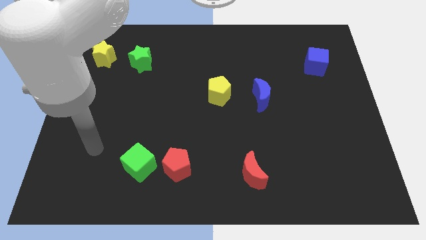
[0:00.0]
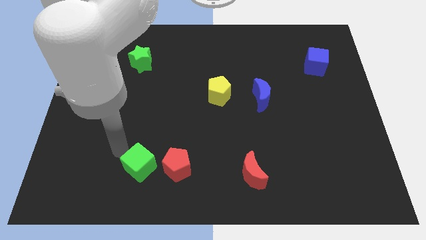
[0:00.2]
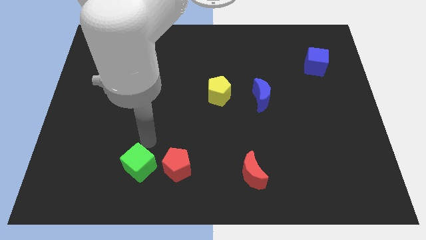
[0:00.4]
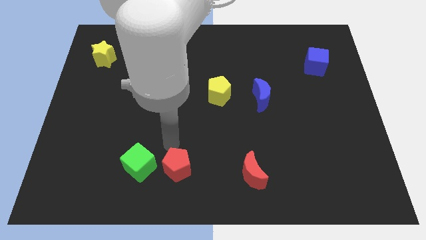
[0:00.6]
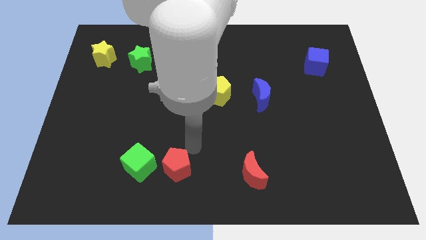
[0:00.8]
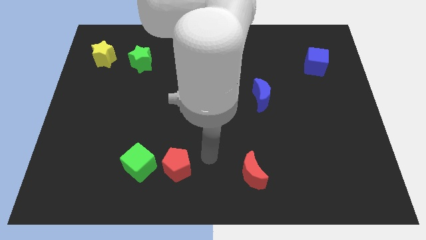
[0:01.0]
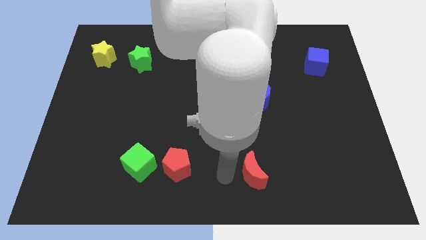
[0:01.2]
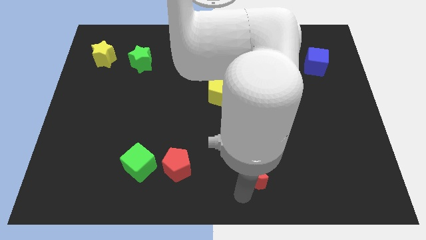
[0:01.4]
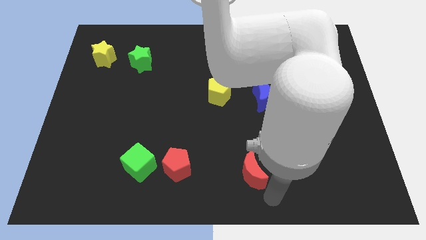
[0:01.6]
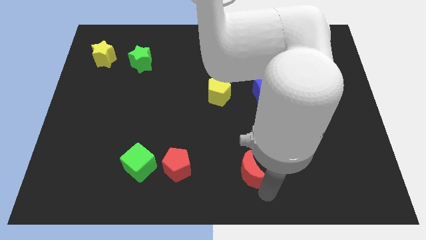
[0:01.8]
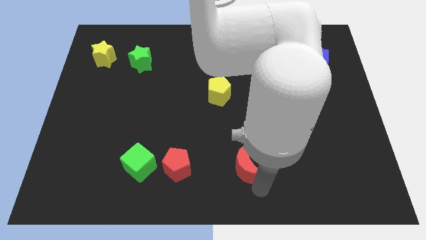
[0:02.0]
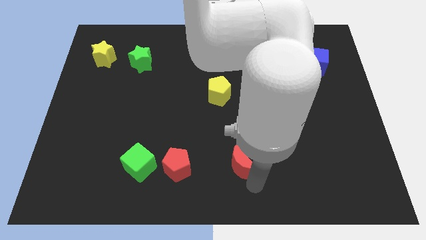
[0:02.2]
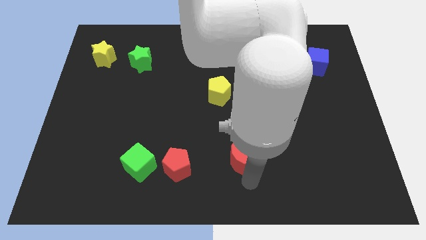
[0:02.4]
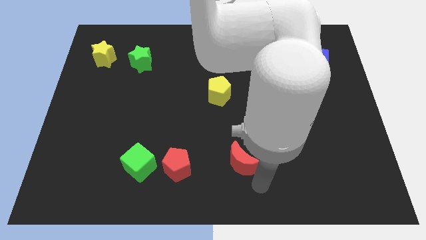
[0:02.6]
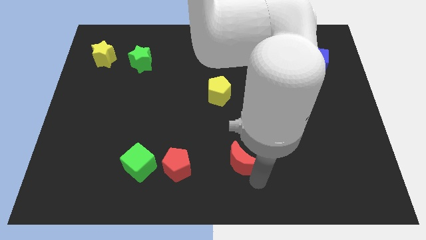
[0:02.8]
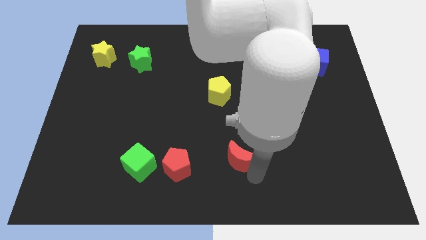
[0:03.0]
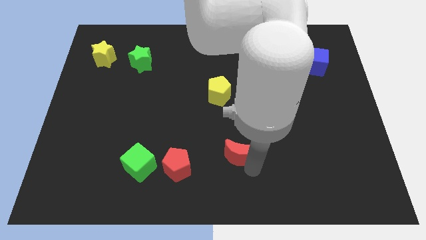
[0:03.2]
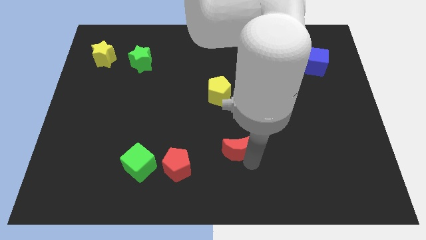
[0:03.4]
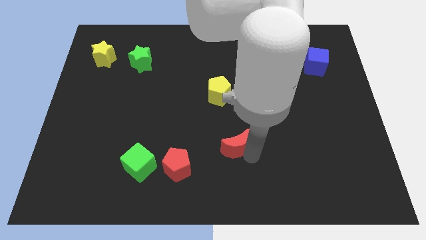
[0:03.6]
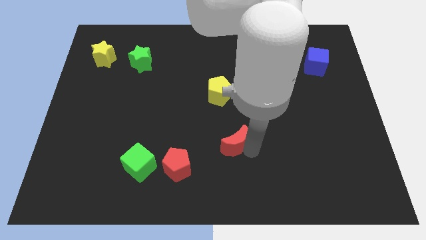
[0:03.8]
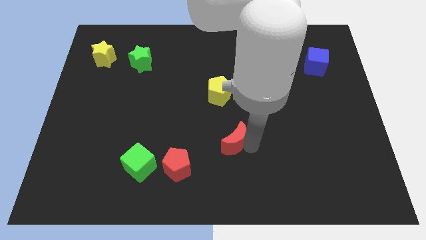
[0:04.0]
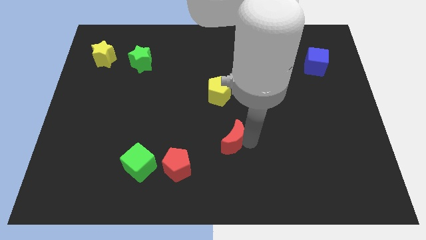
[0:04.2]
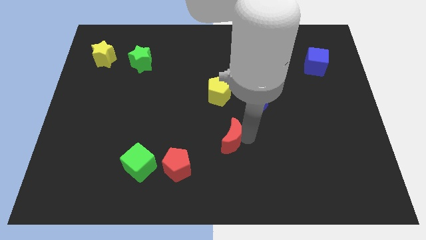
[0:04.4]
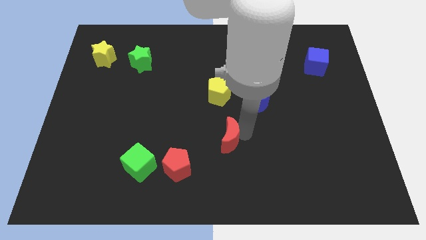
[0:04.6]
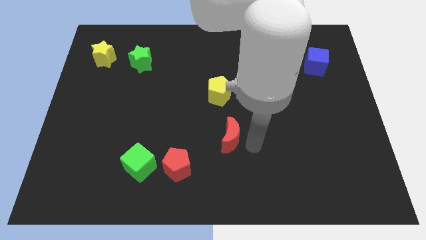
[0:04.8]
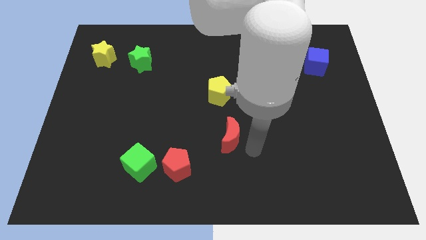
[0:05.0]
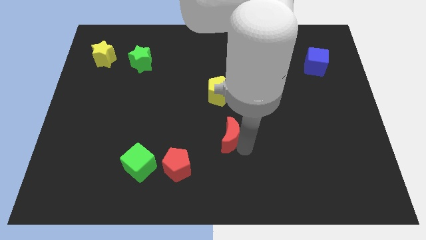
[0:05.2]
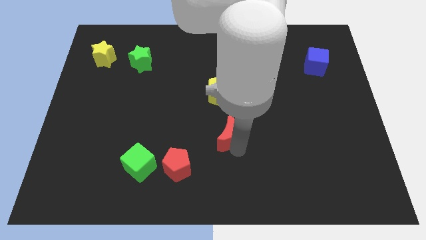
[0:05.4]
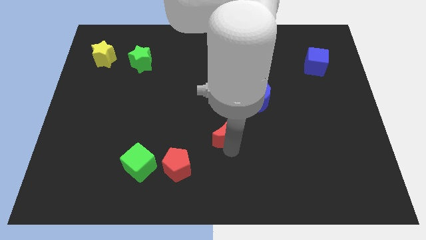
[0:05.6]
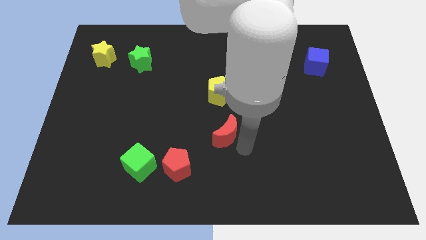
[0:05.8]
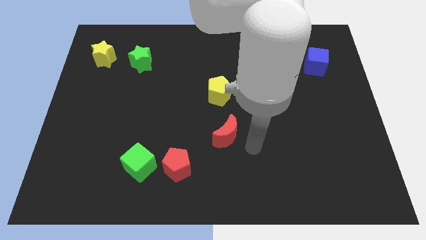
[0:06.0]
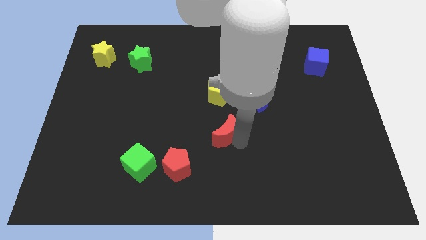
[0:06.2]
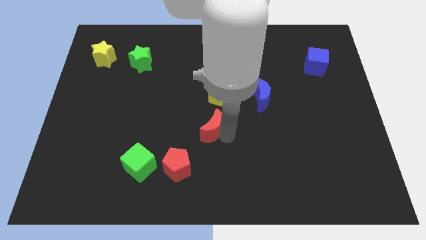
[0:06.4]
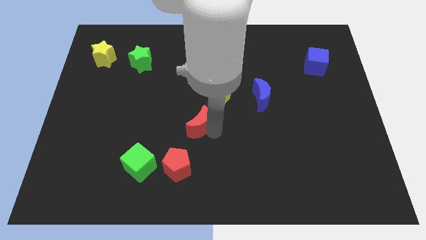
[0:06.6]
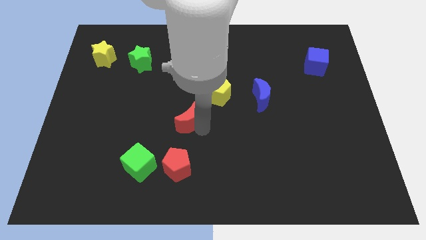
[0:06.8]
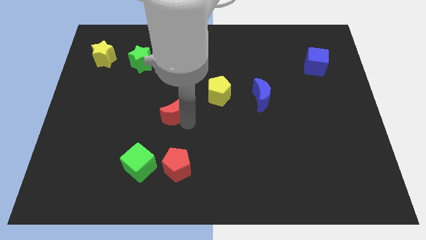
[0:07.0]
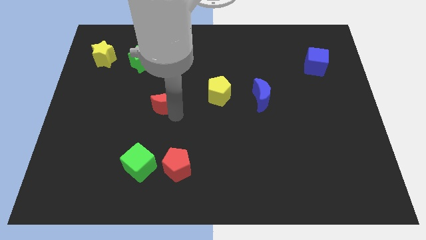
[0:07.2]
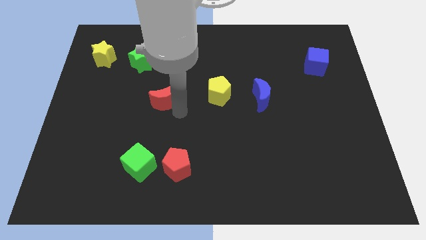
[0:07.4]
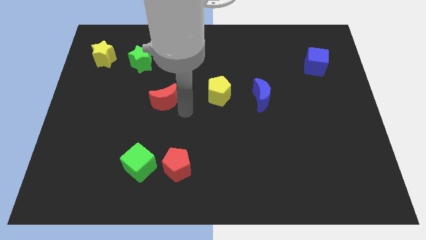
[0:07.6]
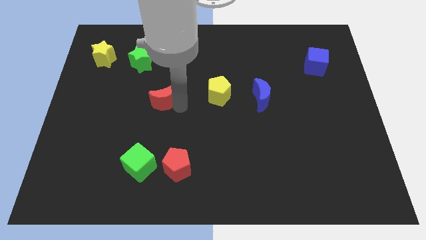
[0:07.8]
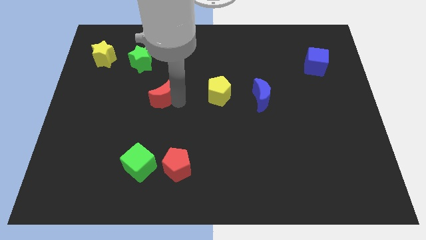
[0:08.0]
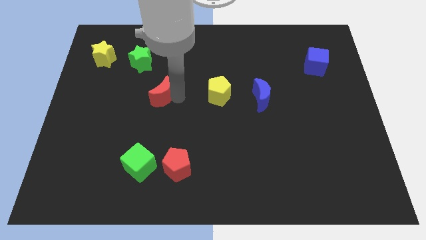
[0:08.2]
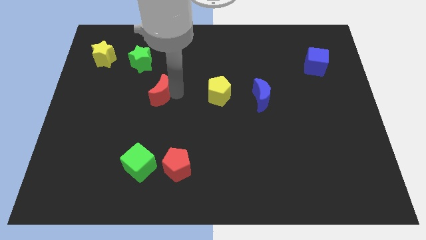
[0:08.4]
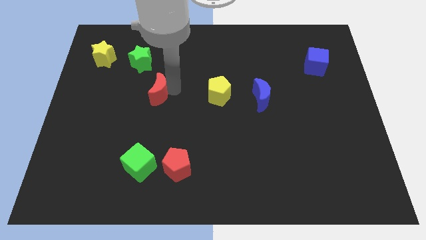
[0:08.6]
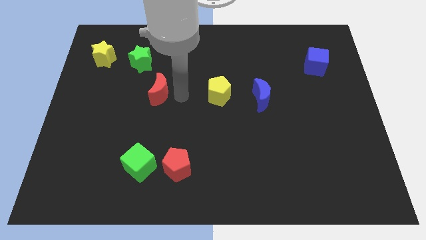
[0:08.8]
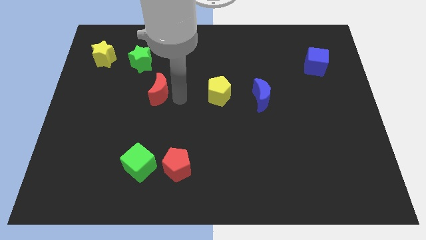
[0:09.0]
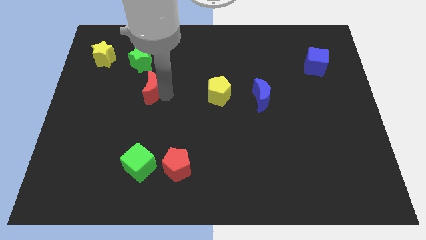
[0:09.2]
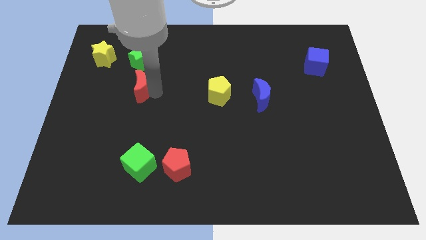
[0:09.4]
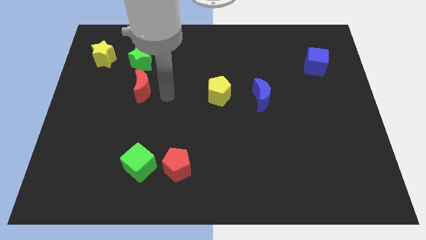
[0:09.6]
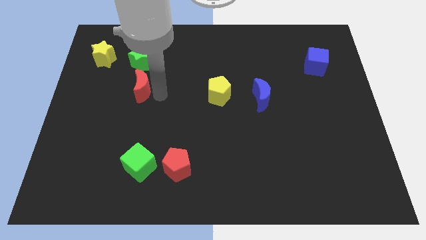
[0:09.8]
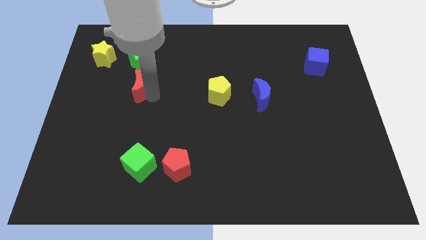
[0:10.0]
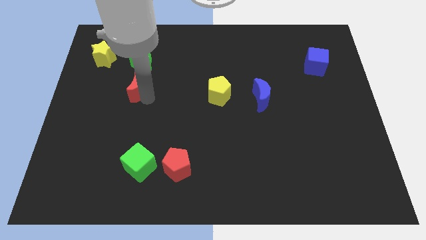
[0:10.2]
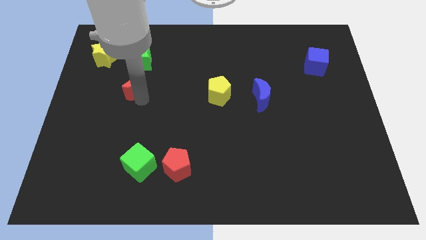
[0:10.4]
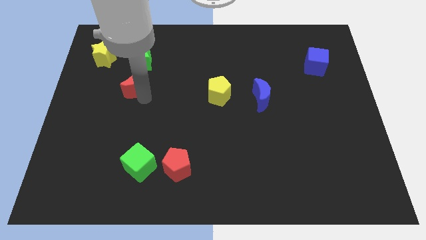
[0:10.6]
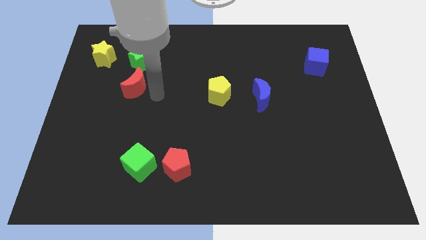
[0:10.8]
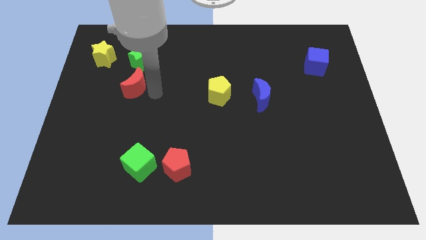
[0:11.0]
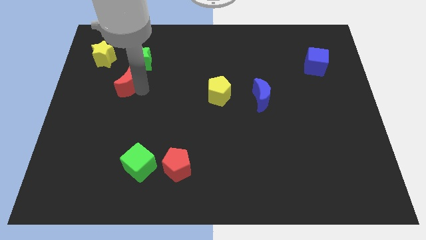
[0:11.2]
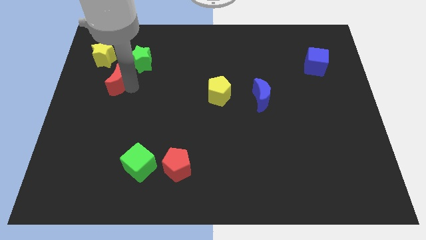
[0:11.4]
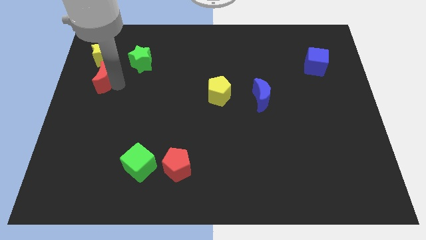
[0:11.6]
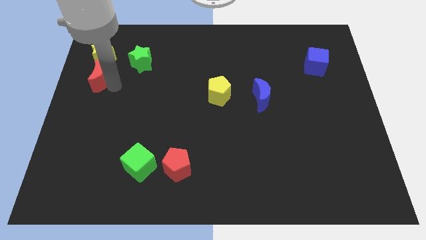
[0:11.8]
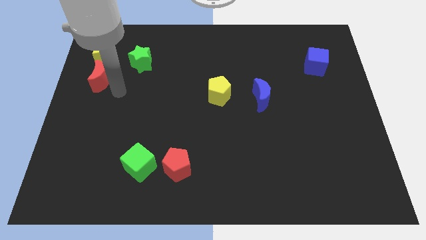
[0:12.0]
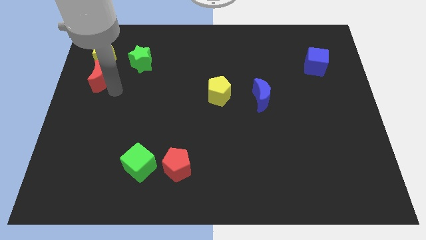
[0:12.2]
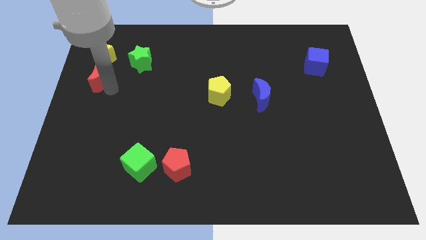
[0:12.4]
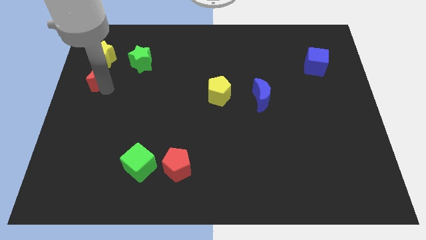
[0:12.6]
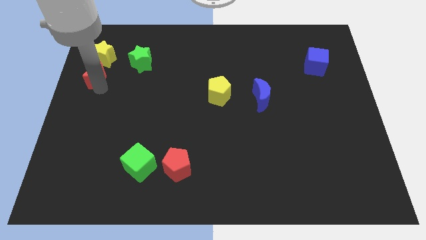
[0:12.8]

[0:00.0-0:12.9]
push the red moon just left of the green star

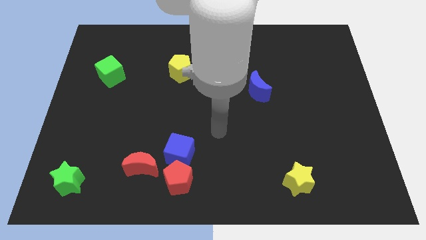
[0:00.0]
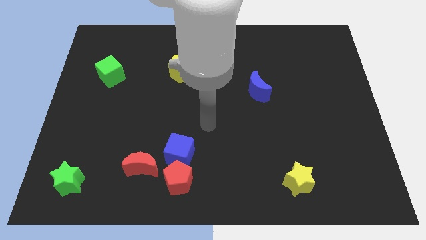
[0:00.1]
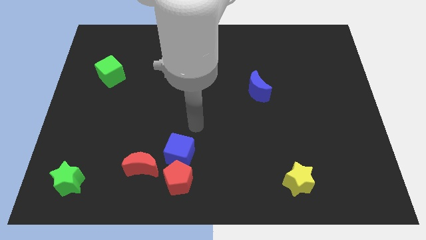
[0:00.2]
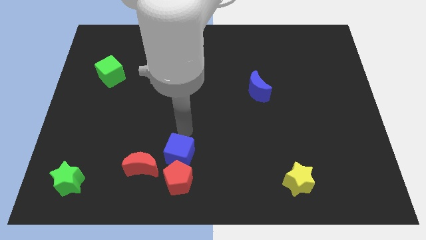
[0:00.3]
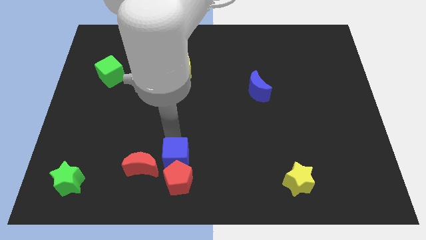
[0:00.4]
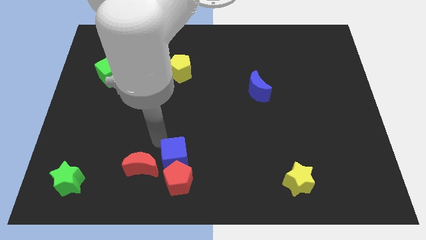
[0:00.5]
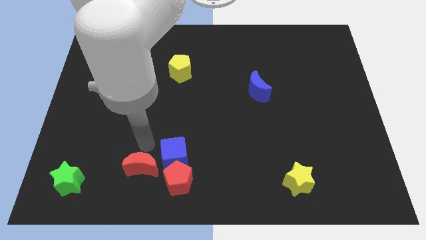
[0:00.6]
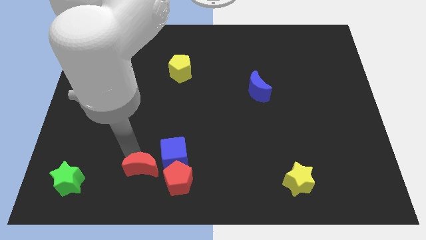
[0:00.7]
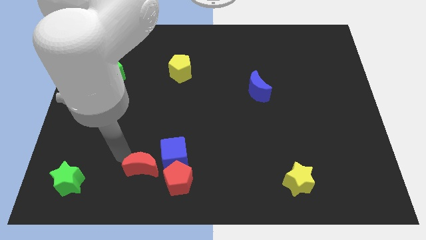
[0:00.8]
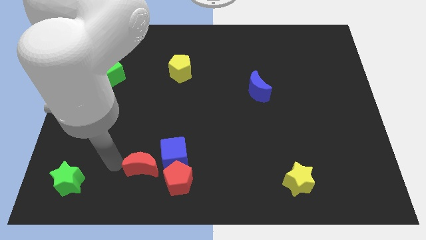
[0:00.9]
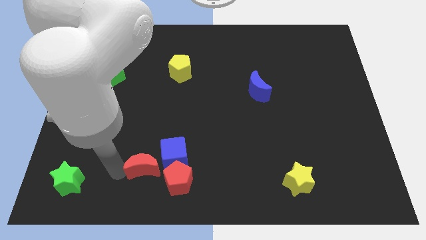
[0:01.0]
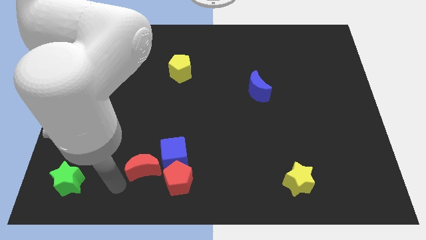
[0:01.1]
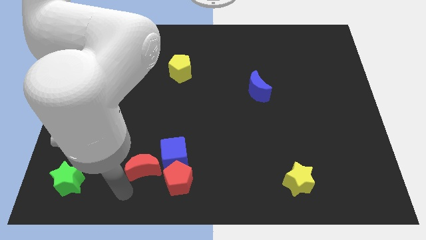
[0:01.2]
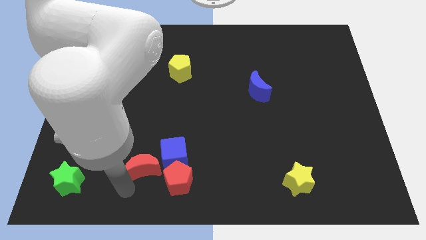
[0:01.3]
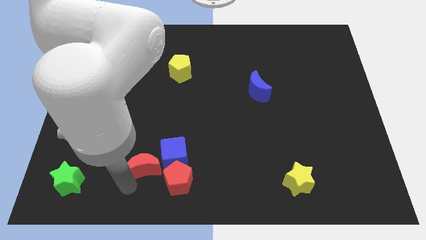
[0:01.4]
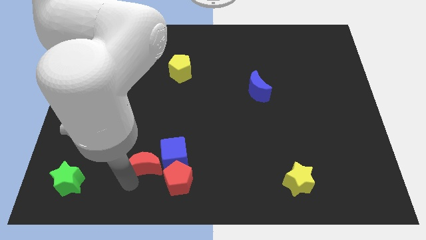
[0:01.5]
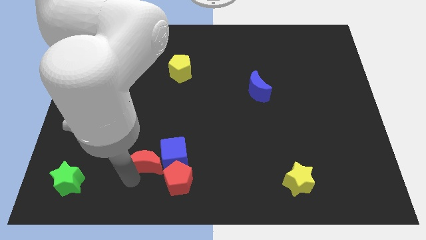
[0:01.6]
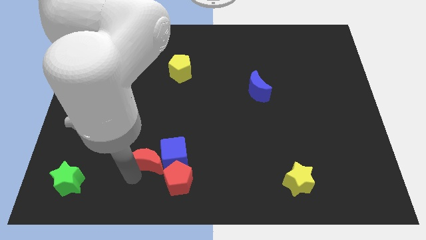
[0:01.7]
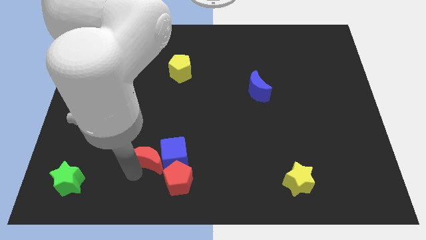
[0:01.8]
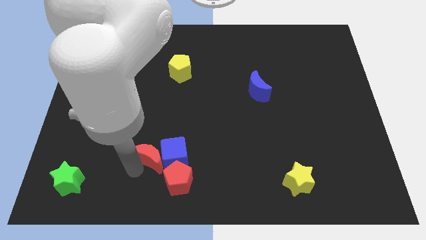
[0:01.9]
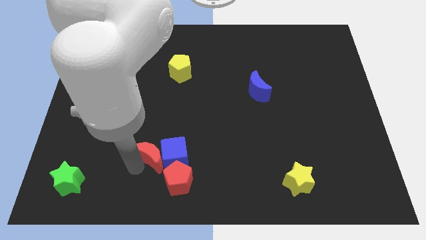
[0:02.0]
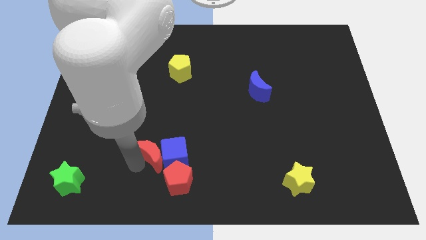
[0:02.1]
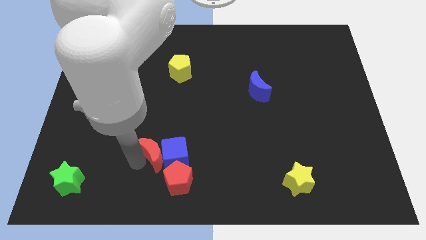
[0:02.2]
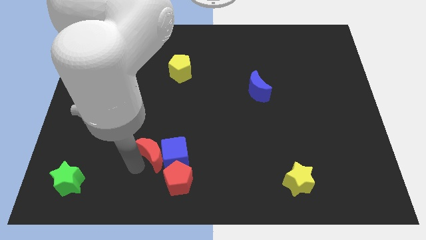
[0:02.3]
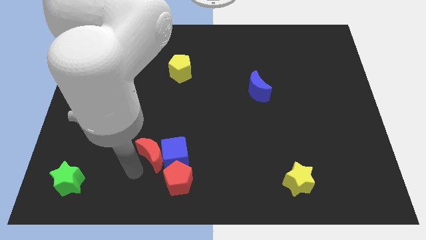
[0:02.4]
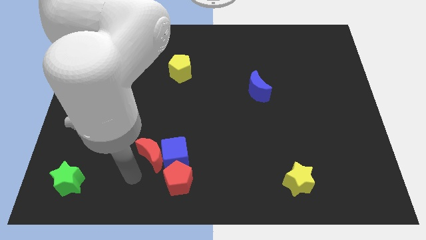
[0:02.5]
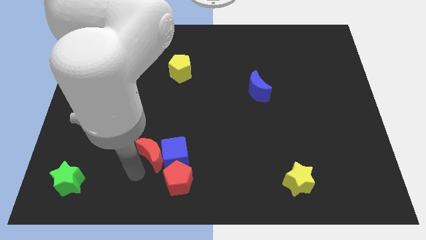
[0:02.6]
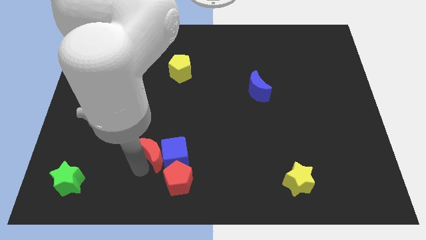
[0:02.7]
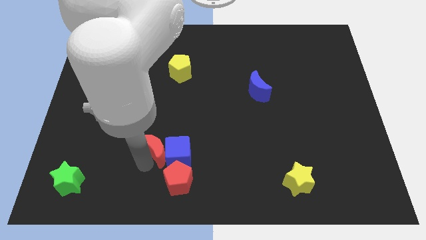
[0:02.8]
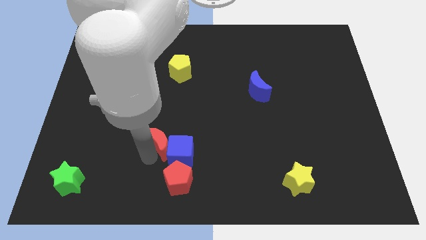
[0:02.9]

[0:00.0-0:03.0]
push the red moon to the top of the red pentagon
